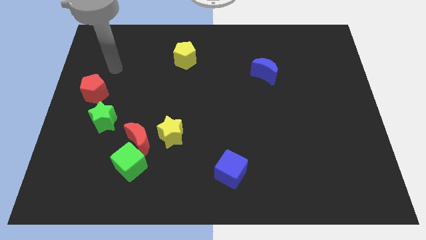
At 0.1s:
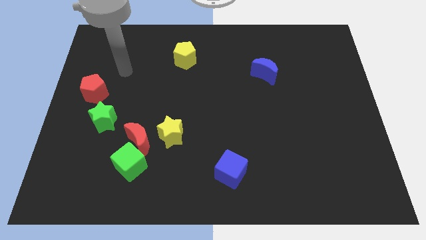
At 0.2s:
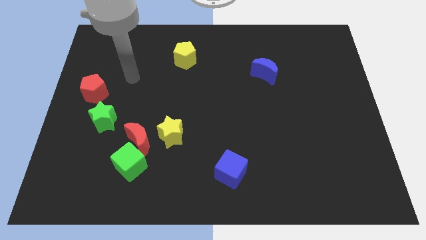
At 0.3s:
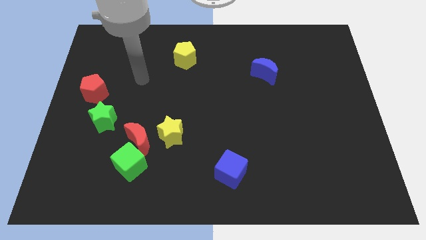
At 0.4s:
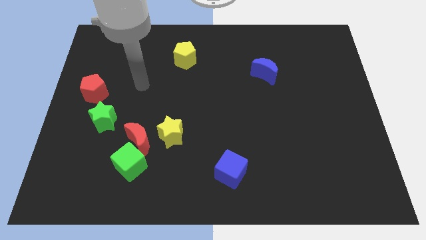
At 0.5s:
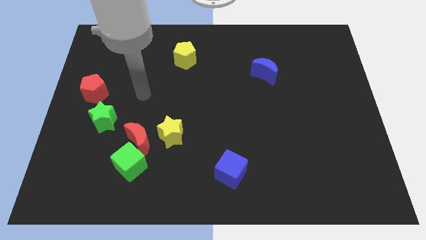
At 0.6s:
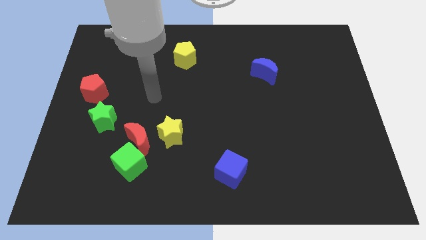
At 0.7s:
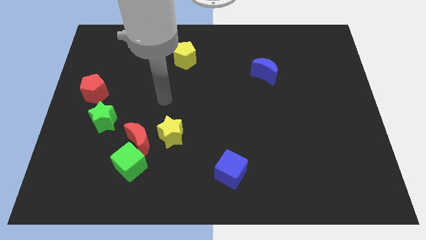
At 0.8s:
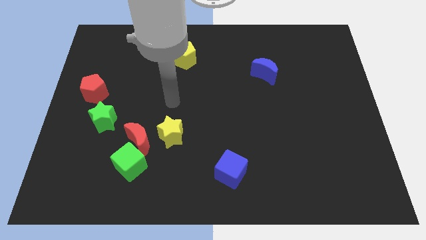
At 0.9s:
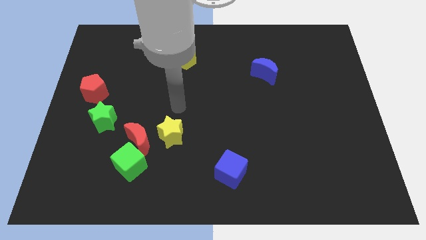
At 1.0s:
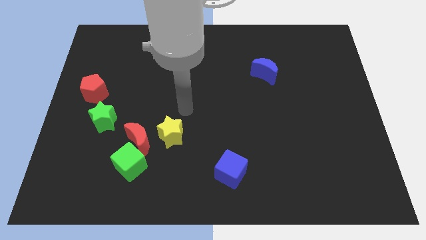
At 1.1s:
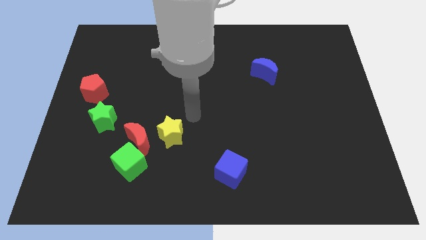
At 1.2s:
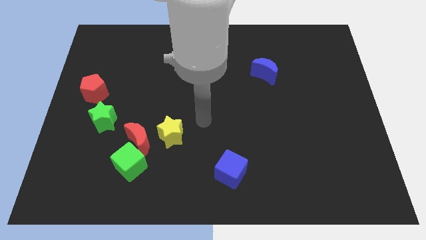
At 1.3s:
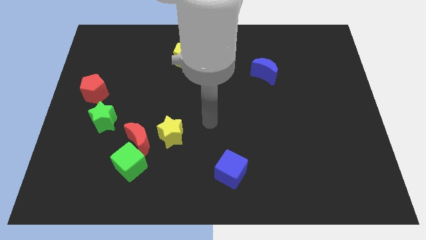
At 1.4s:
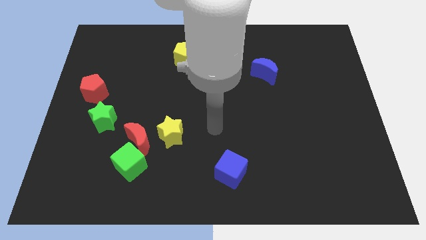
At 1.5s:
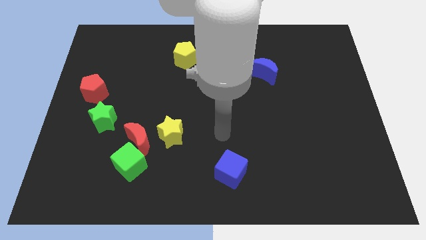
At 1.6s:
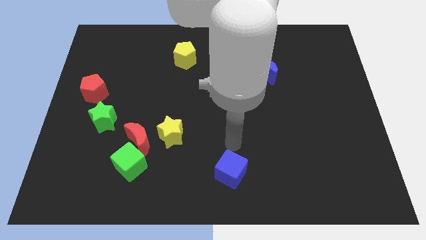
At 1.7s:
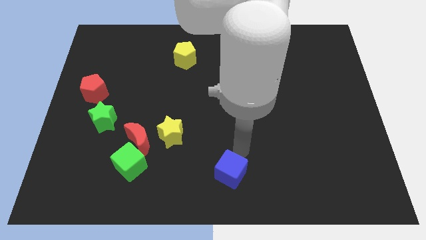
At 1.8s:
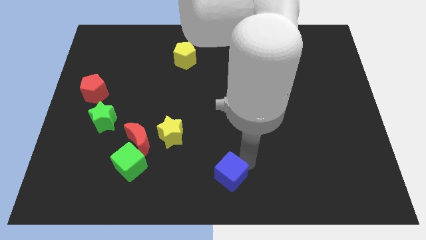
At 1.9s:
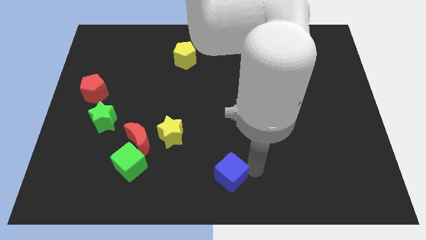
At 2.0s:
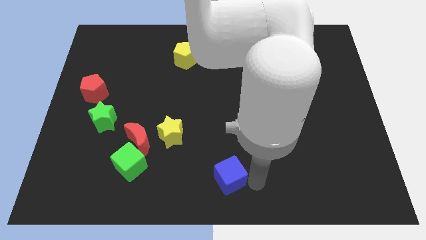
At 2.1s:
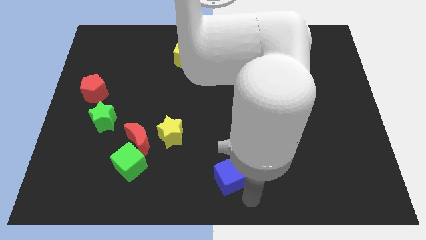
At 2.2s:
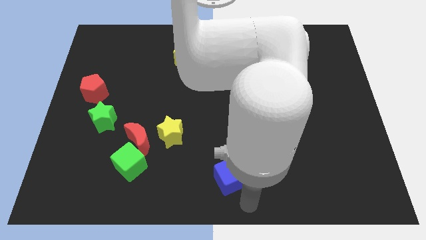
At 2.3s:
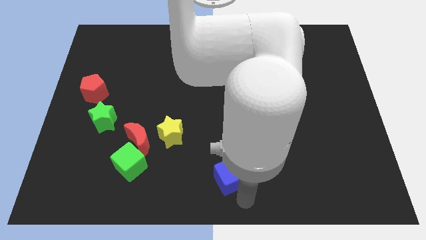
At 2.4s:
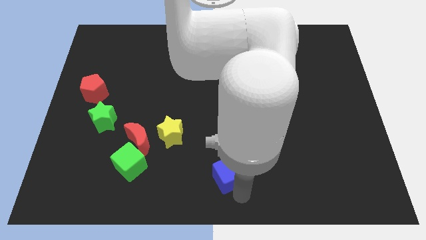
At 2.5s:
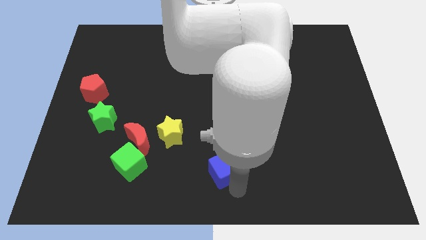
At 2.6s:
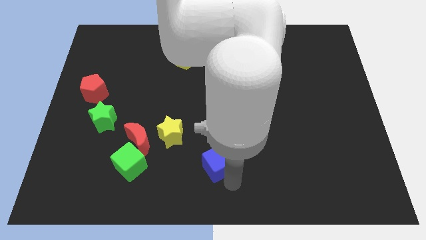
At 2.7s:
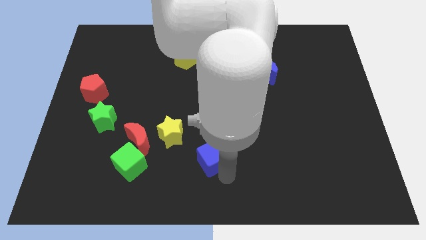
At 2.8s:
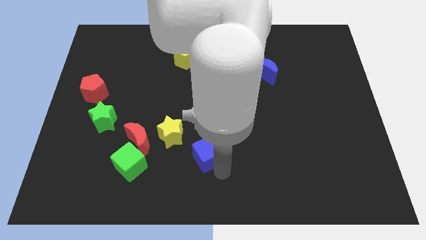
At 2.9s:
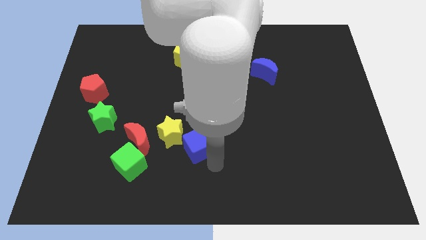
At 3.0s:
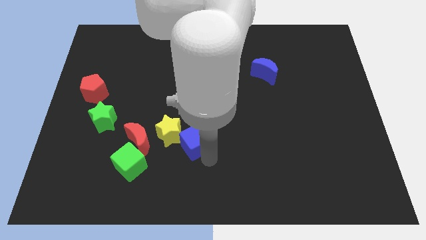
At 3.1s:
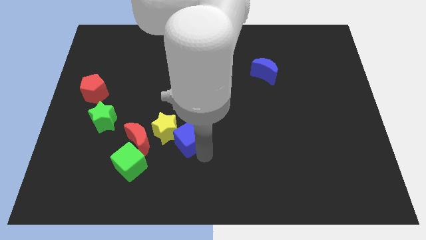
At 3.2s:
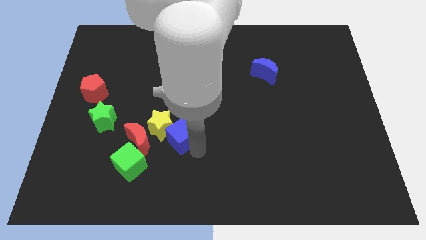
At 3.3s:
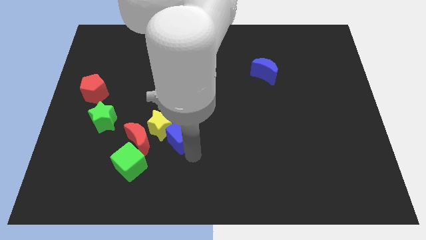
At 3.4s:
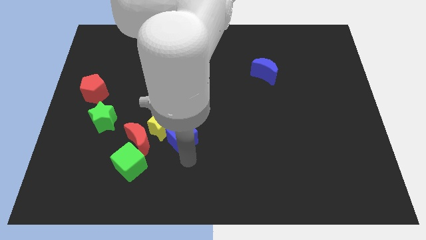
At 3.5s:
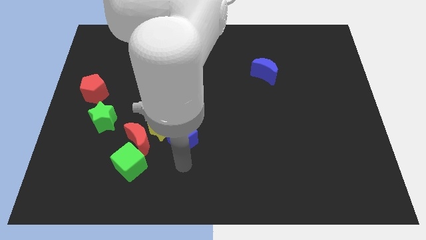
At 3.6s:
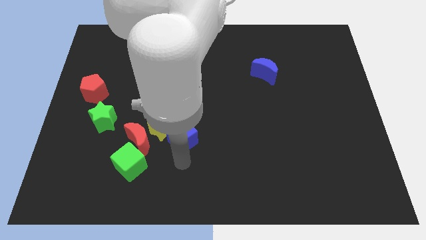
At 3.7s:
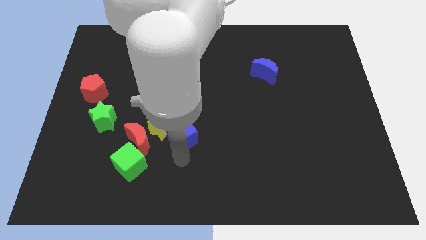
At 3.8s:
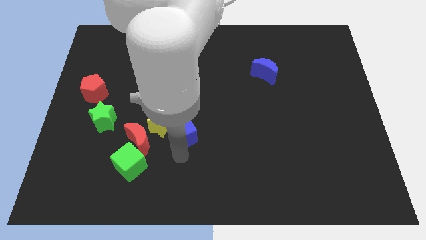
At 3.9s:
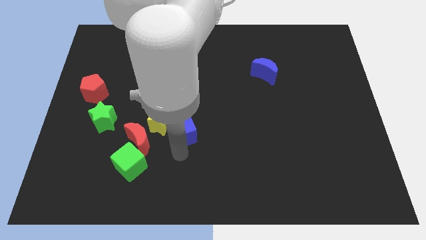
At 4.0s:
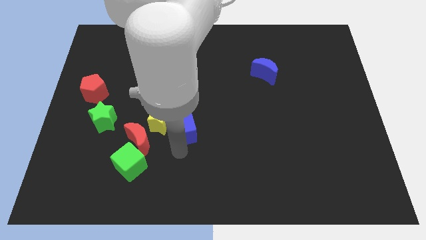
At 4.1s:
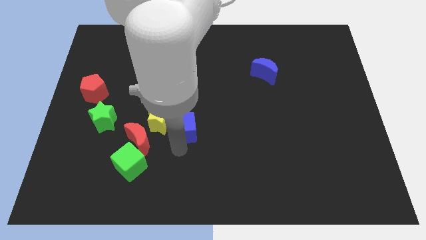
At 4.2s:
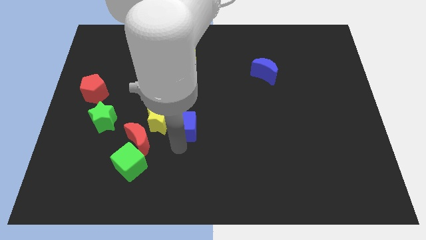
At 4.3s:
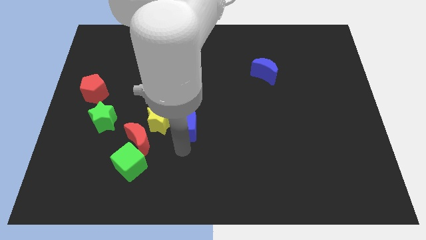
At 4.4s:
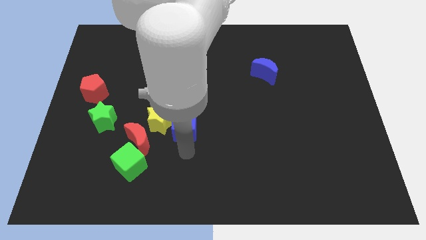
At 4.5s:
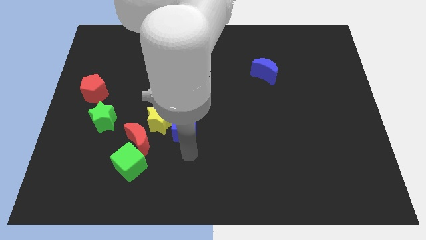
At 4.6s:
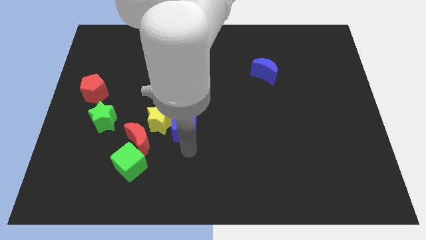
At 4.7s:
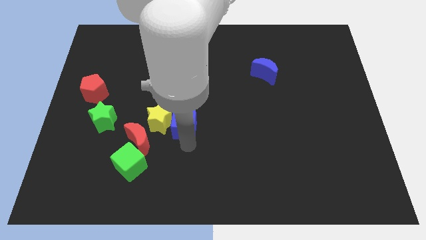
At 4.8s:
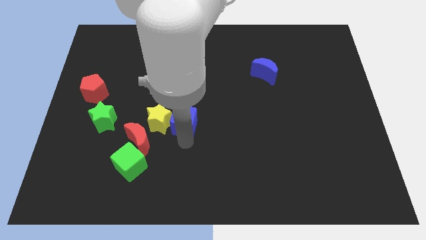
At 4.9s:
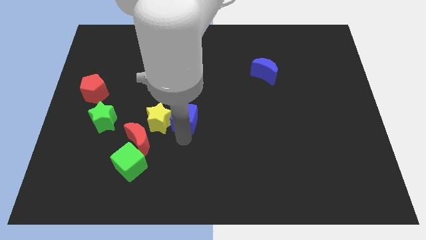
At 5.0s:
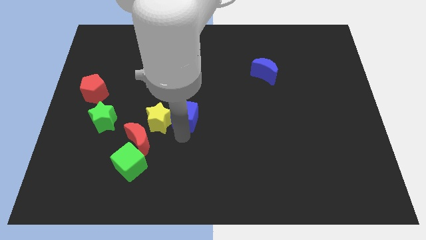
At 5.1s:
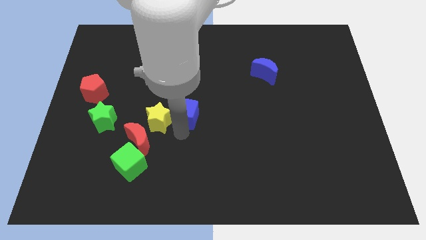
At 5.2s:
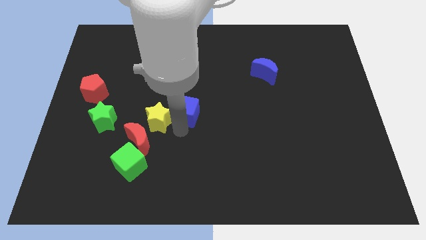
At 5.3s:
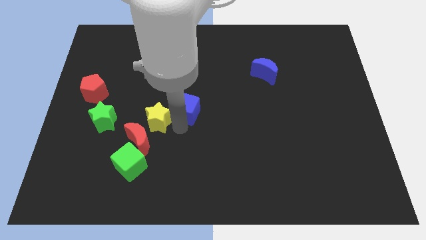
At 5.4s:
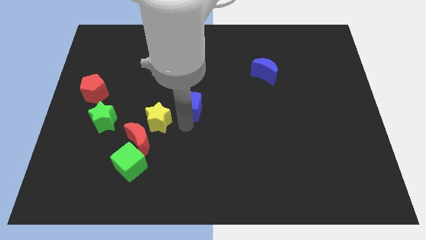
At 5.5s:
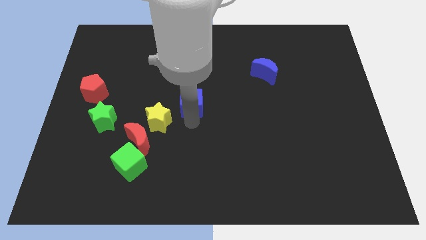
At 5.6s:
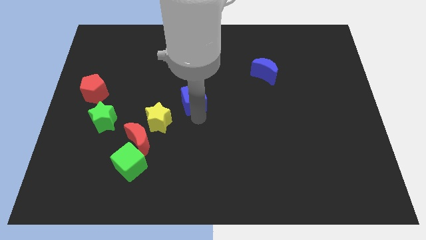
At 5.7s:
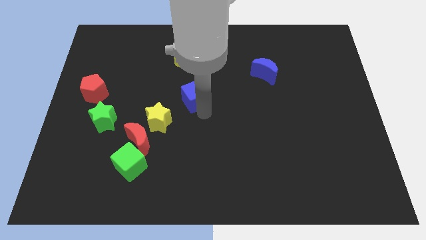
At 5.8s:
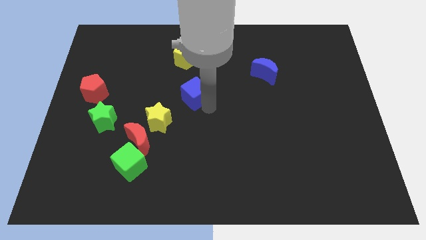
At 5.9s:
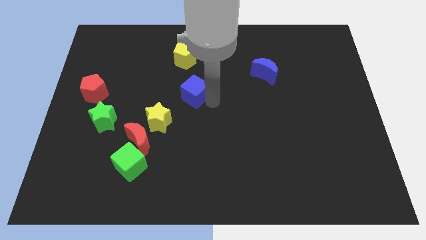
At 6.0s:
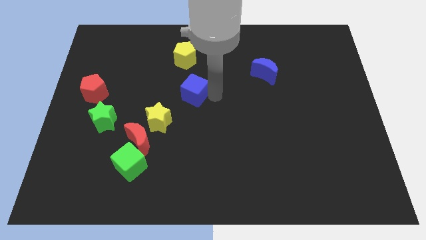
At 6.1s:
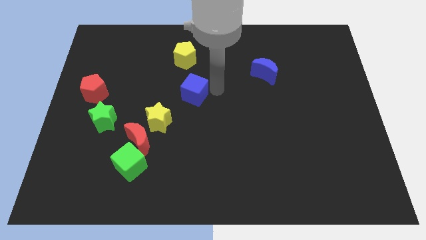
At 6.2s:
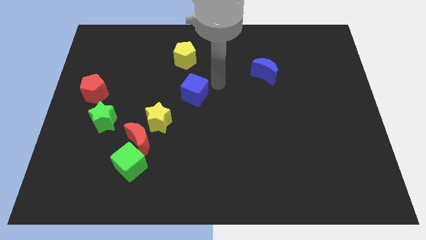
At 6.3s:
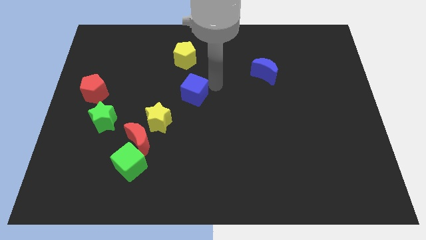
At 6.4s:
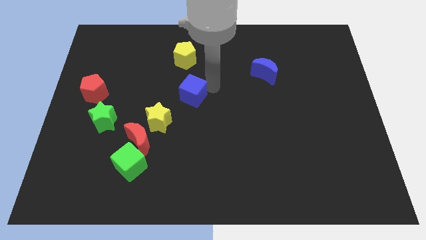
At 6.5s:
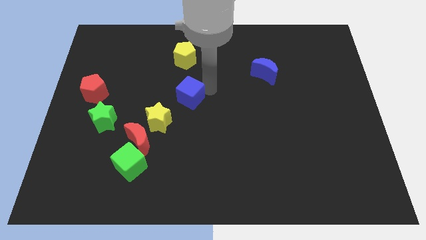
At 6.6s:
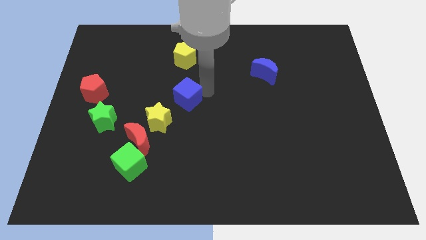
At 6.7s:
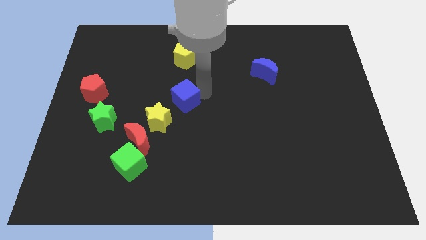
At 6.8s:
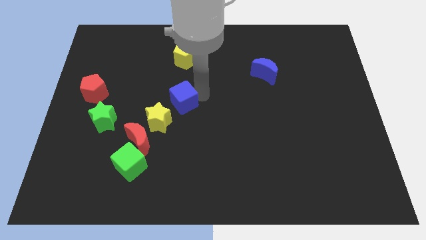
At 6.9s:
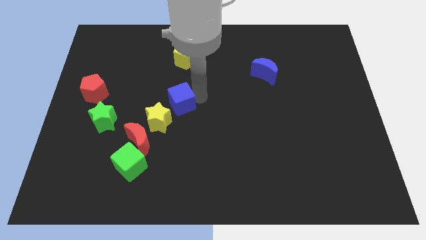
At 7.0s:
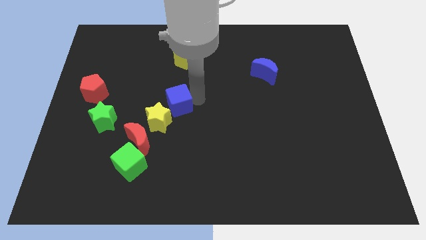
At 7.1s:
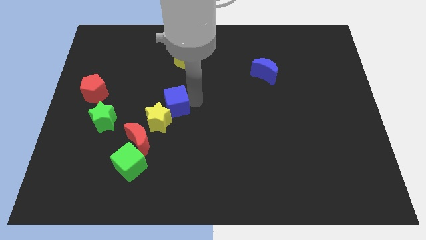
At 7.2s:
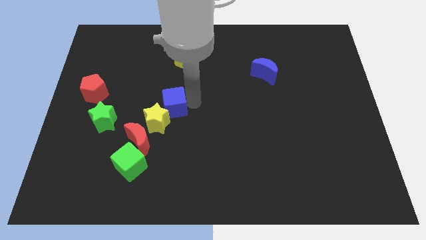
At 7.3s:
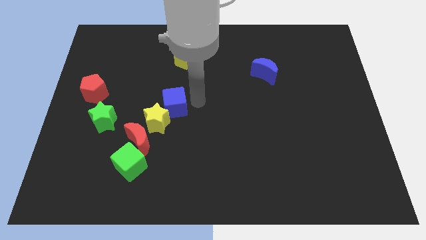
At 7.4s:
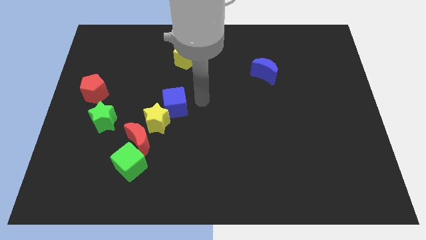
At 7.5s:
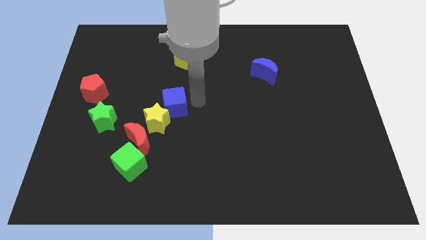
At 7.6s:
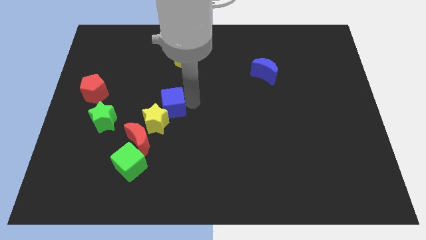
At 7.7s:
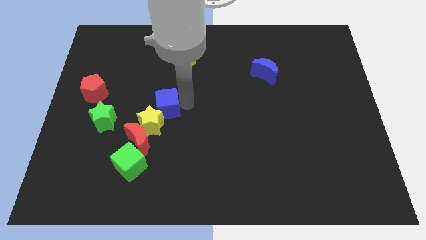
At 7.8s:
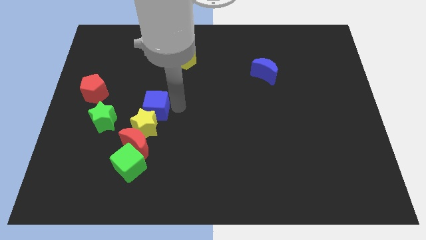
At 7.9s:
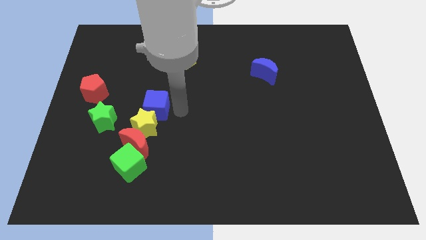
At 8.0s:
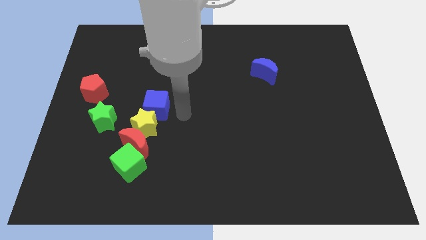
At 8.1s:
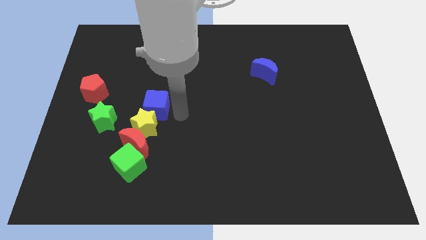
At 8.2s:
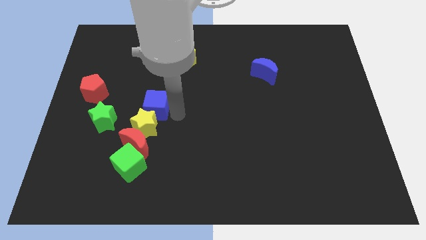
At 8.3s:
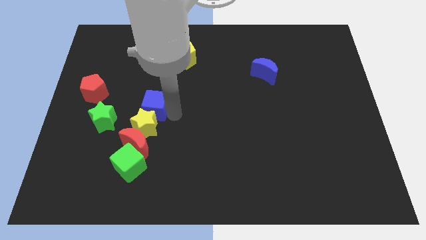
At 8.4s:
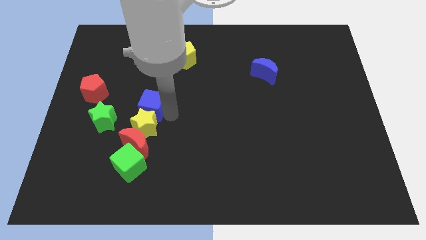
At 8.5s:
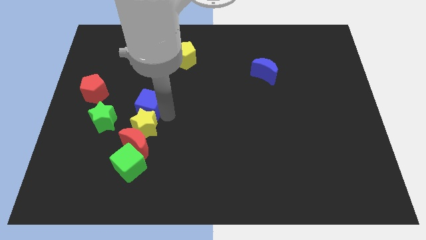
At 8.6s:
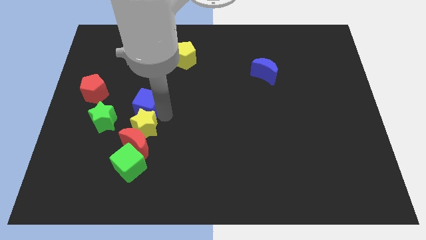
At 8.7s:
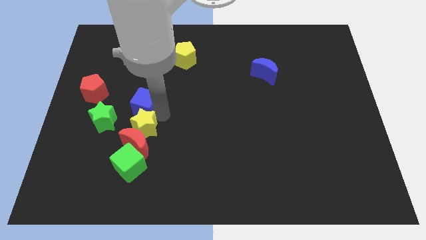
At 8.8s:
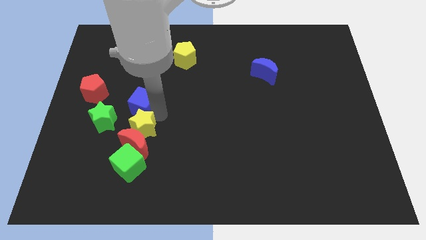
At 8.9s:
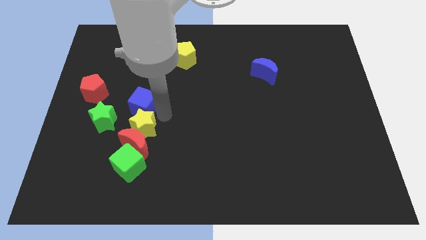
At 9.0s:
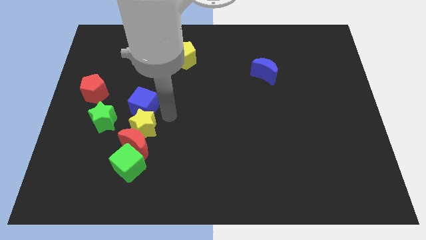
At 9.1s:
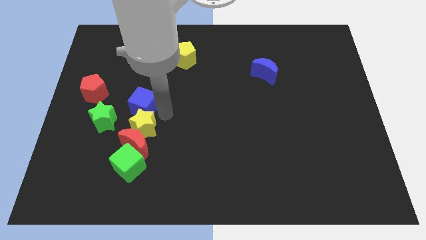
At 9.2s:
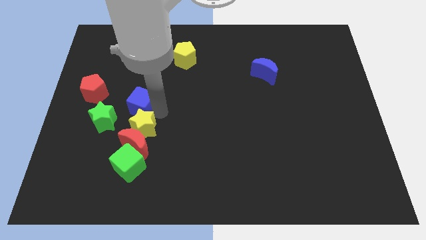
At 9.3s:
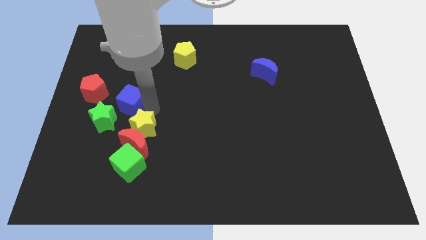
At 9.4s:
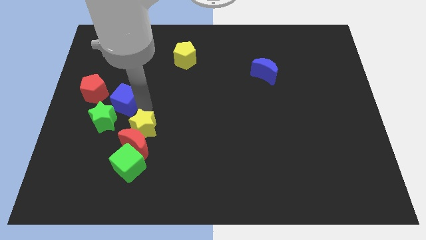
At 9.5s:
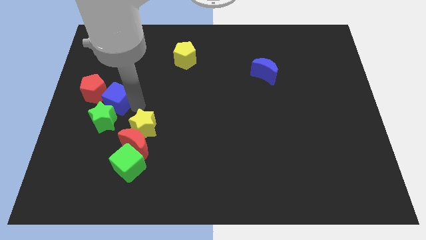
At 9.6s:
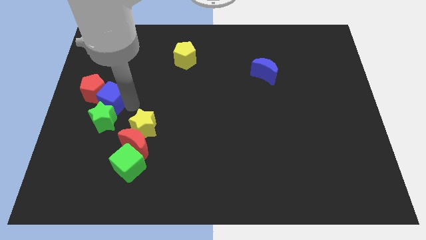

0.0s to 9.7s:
put the blue cube towards the red pentagon
